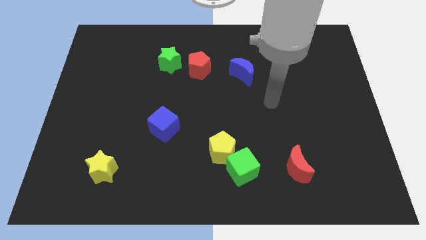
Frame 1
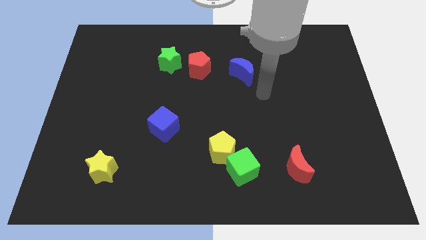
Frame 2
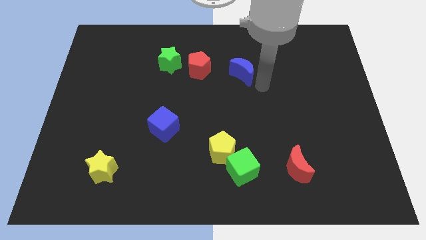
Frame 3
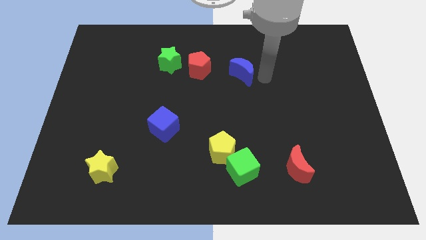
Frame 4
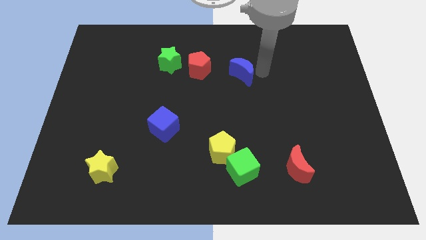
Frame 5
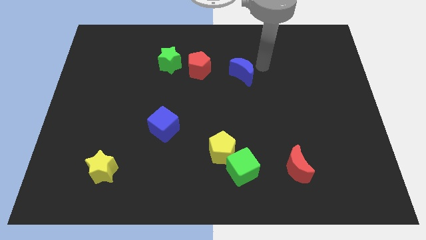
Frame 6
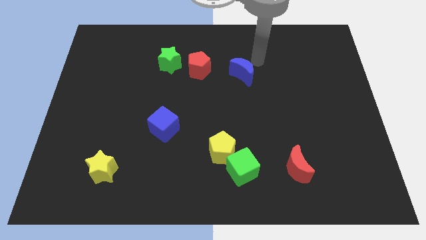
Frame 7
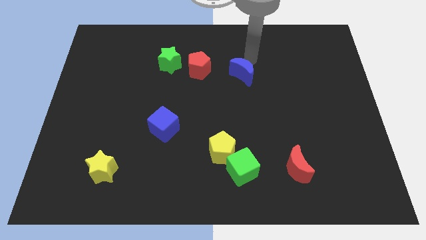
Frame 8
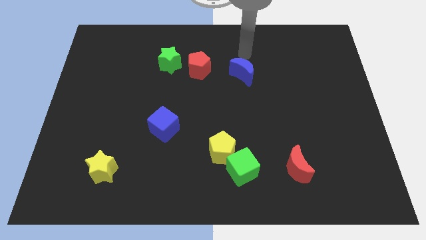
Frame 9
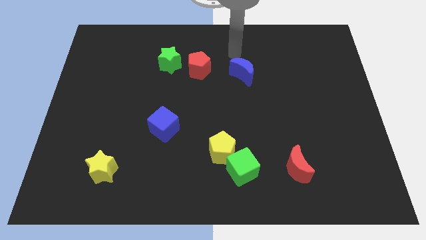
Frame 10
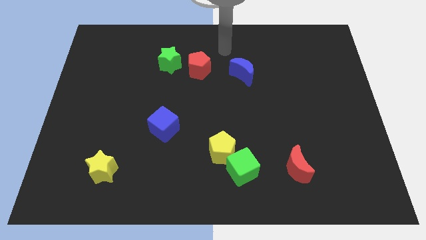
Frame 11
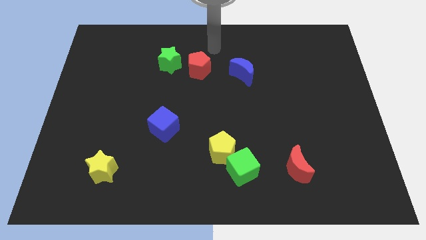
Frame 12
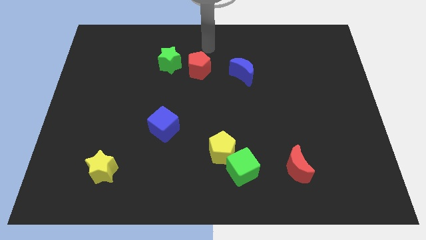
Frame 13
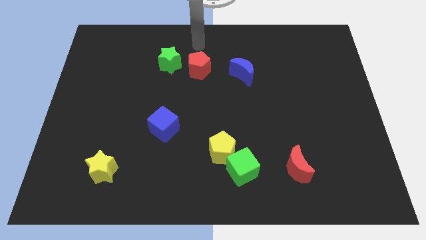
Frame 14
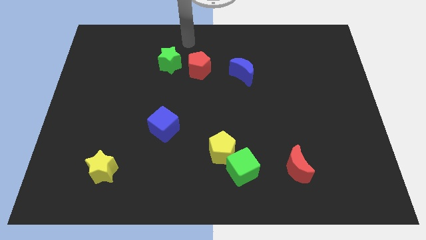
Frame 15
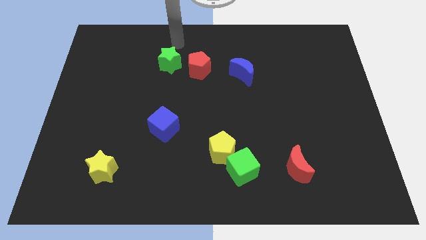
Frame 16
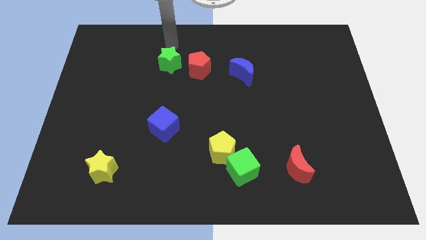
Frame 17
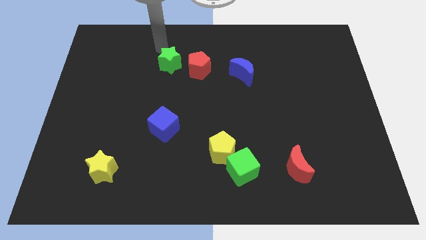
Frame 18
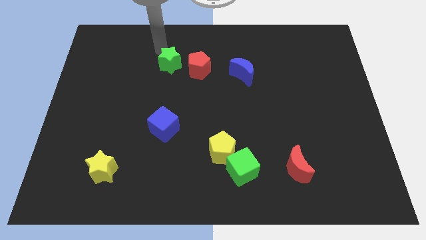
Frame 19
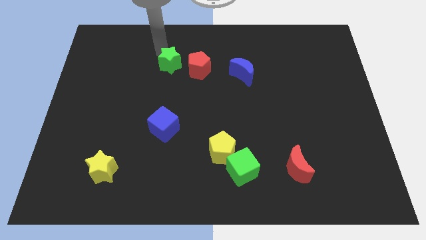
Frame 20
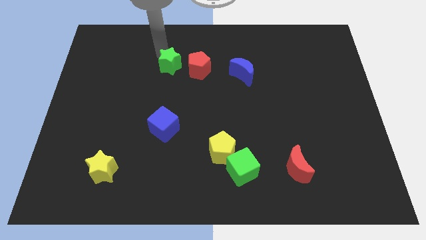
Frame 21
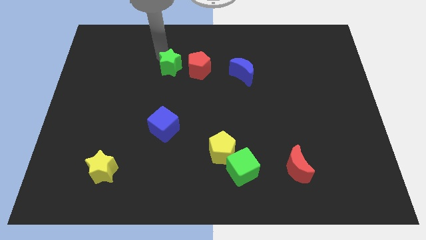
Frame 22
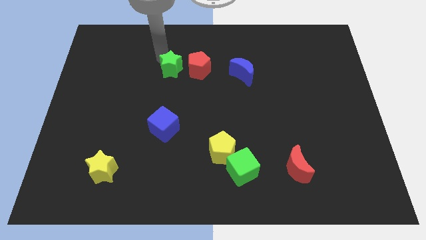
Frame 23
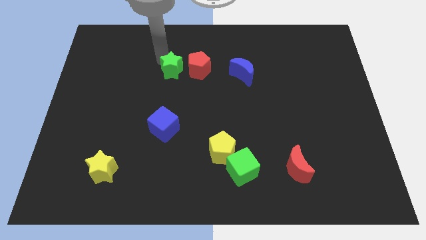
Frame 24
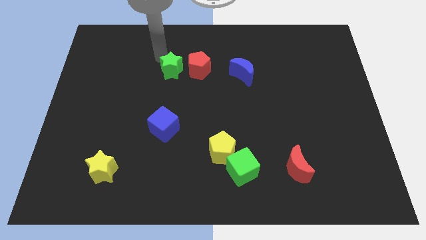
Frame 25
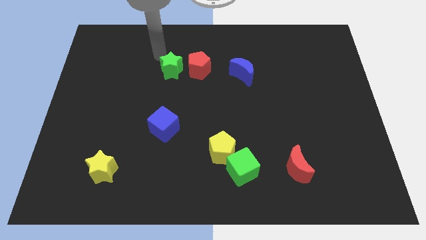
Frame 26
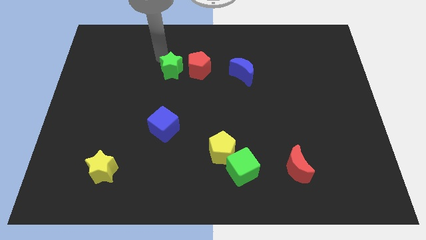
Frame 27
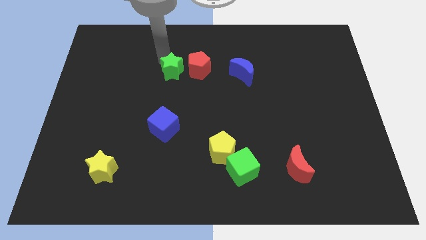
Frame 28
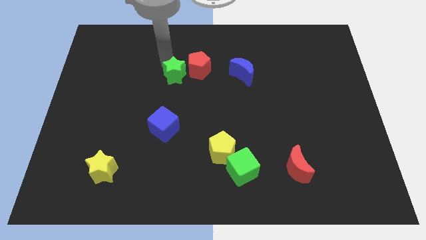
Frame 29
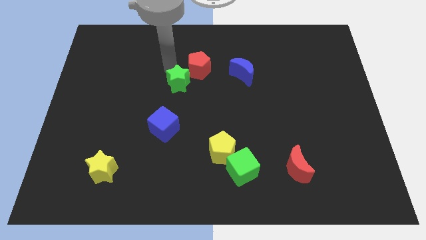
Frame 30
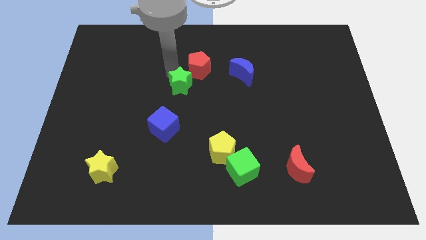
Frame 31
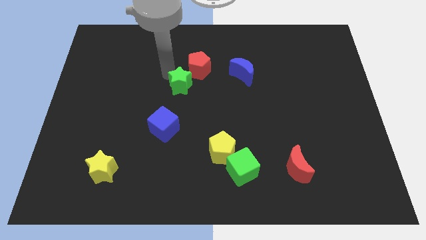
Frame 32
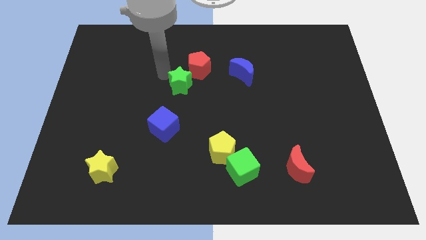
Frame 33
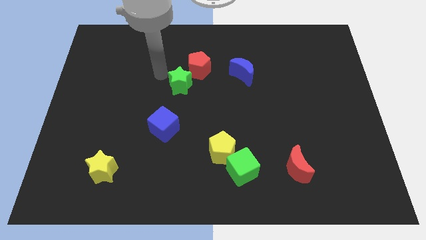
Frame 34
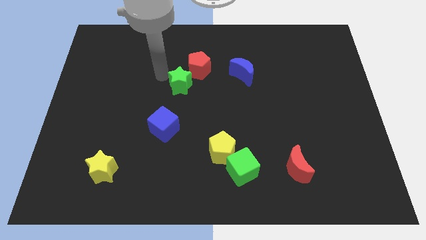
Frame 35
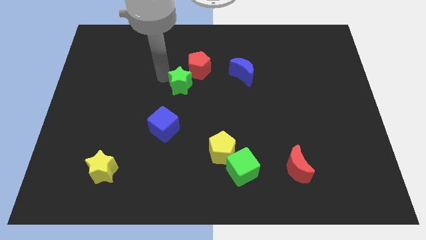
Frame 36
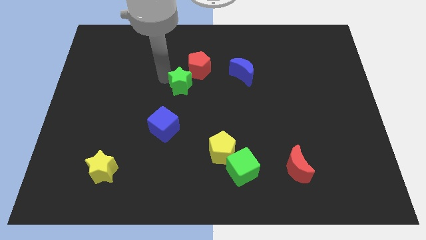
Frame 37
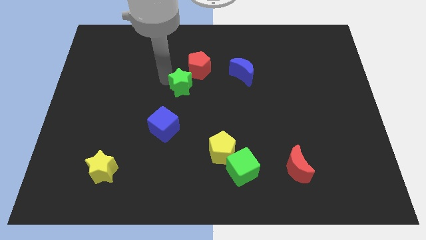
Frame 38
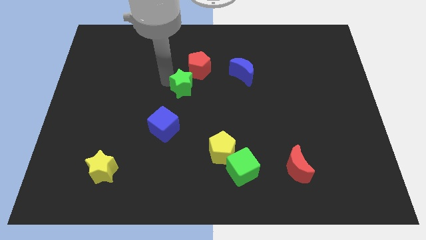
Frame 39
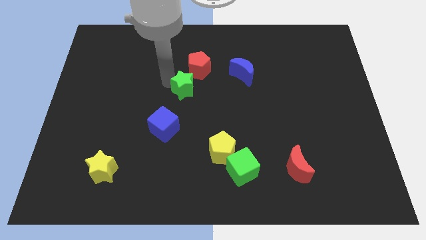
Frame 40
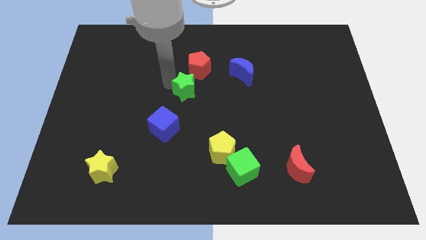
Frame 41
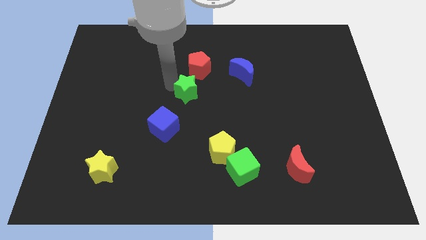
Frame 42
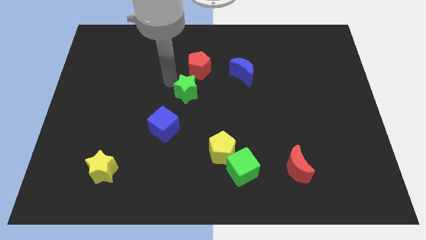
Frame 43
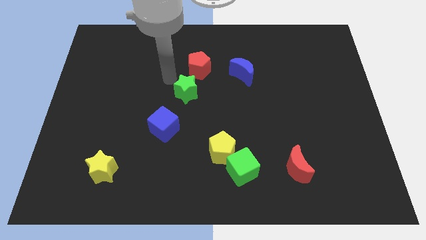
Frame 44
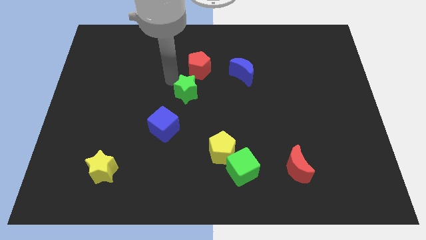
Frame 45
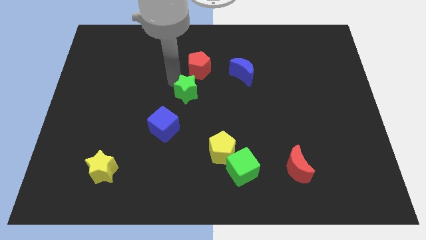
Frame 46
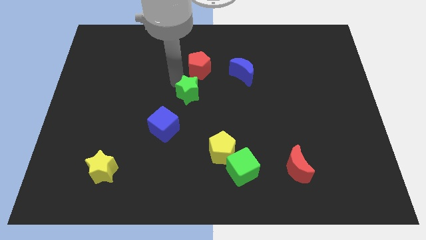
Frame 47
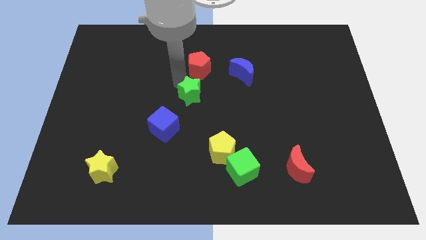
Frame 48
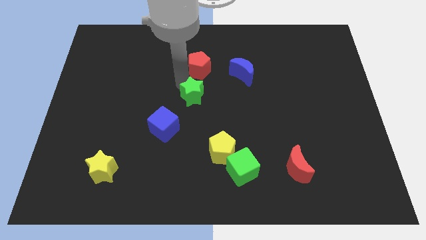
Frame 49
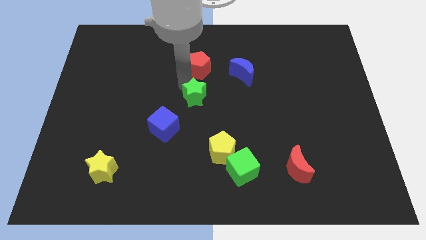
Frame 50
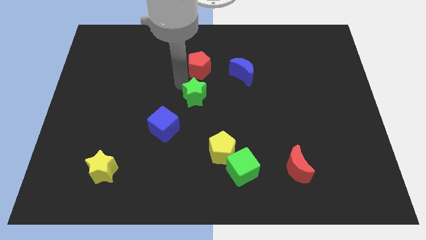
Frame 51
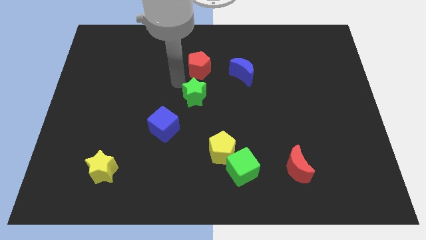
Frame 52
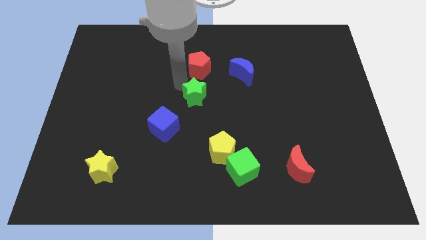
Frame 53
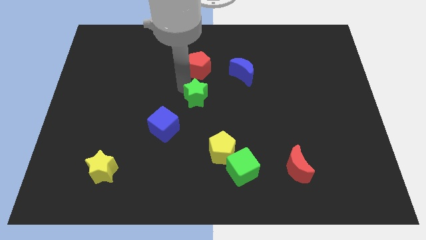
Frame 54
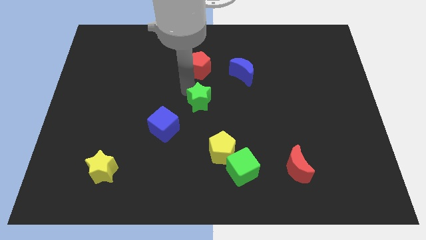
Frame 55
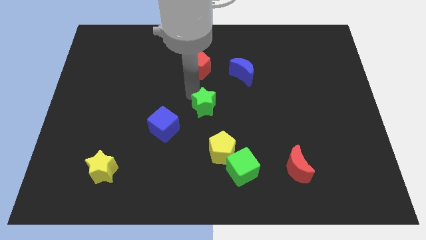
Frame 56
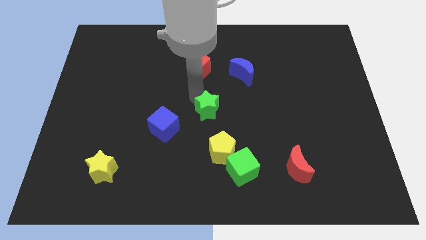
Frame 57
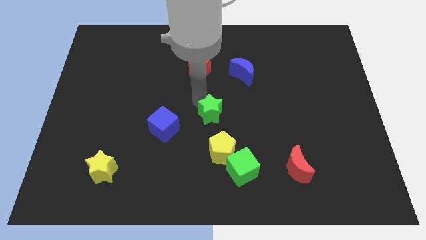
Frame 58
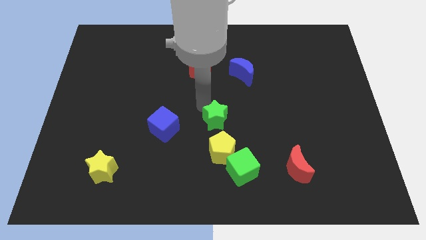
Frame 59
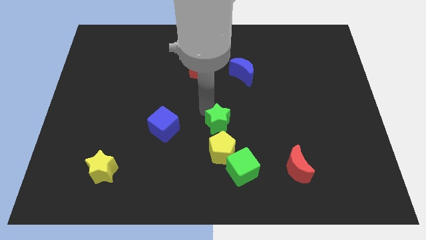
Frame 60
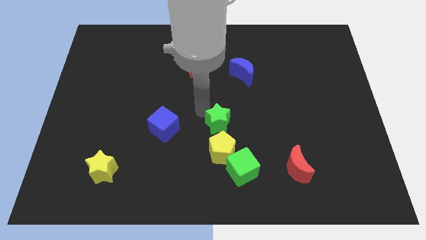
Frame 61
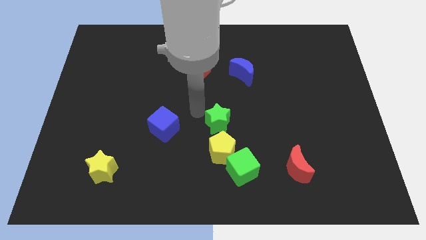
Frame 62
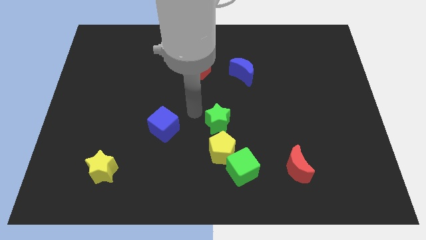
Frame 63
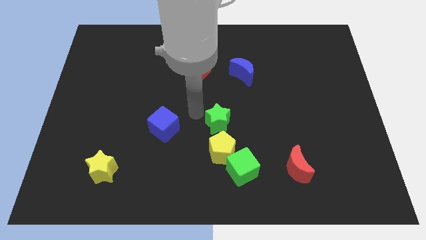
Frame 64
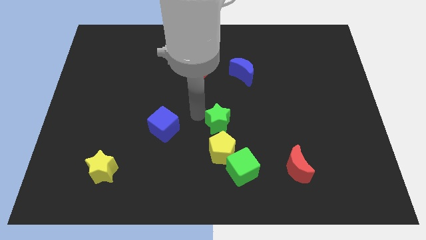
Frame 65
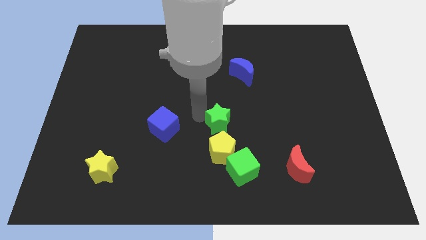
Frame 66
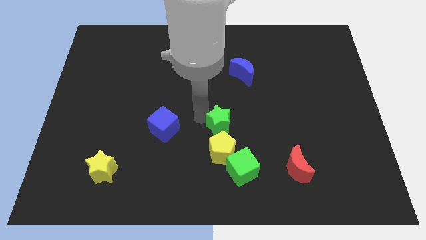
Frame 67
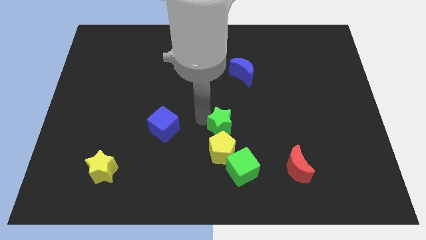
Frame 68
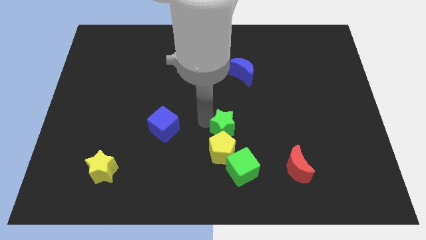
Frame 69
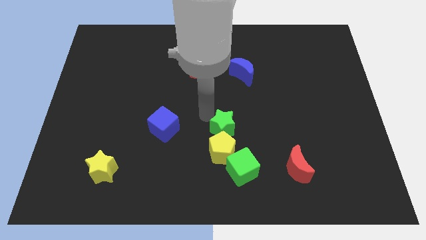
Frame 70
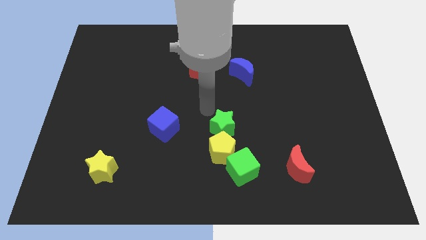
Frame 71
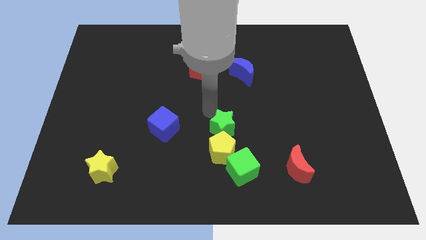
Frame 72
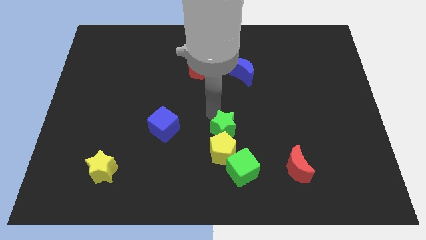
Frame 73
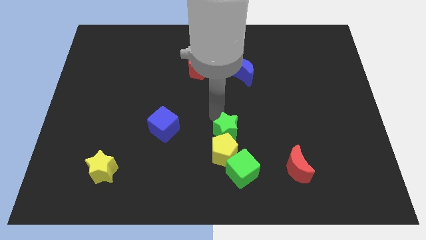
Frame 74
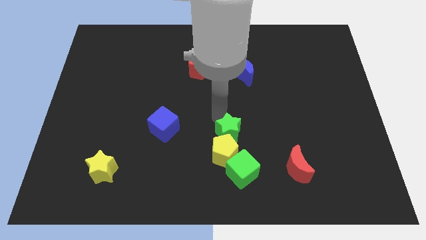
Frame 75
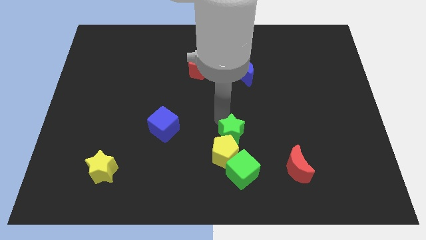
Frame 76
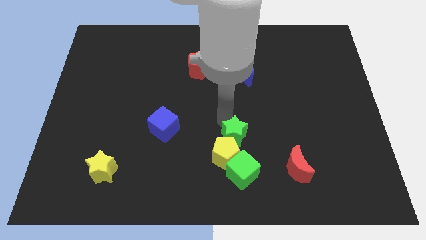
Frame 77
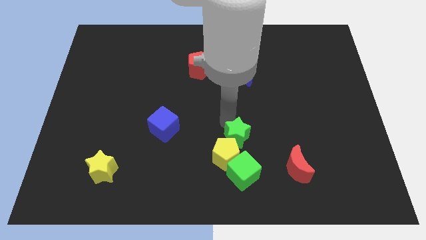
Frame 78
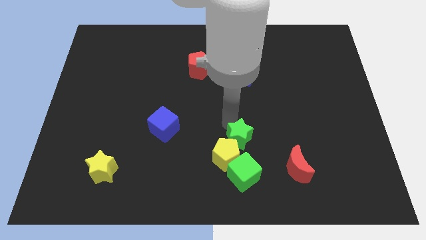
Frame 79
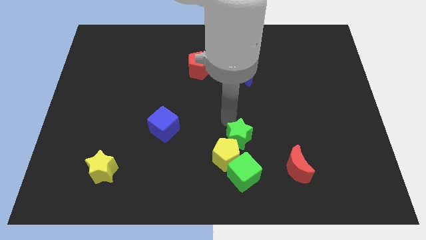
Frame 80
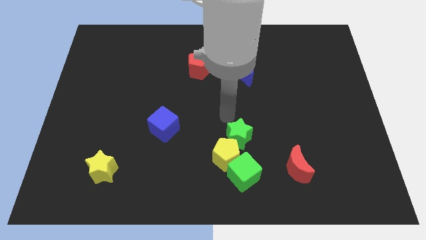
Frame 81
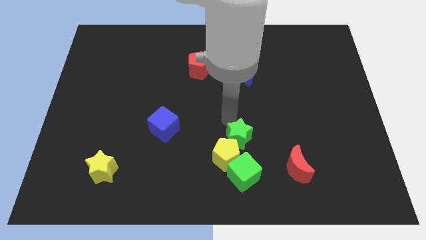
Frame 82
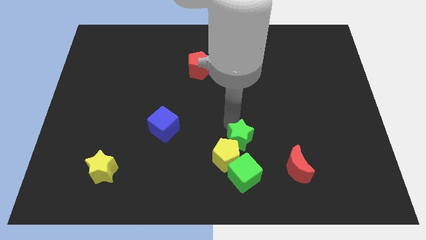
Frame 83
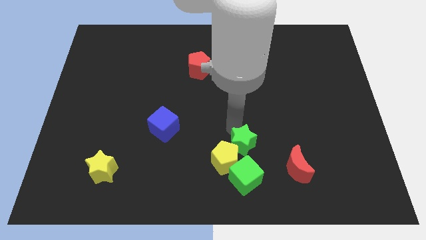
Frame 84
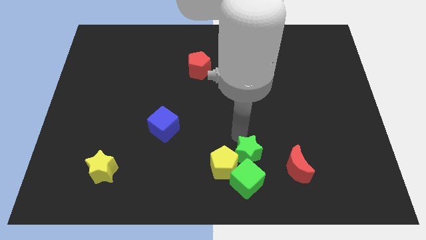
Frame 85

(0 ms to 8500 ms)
move the green star next to the green cube
